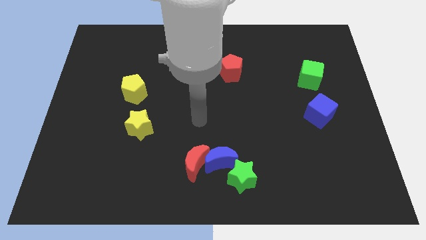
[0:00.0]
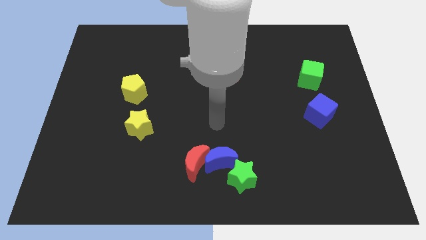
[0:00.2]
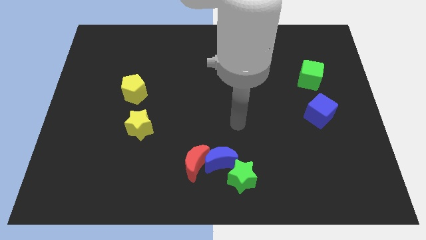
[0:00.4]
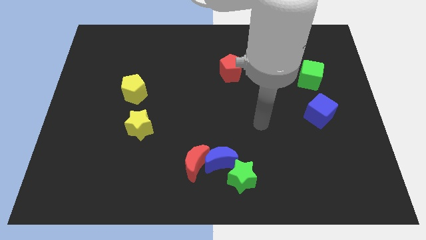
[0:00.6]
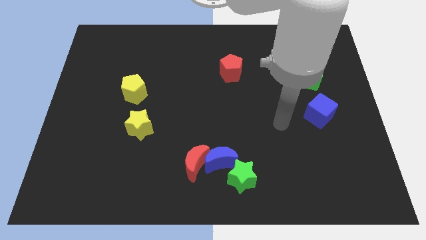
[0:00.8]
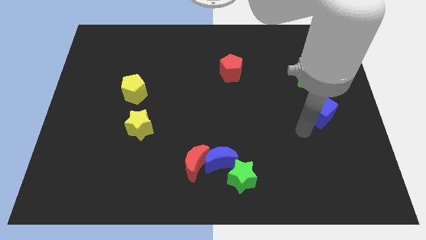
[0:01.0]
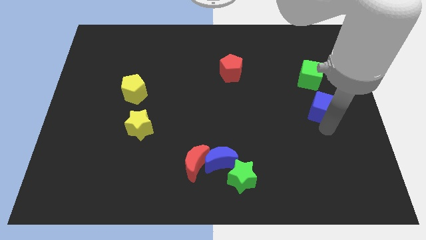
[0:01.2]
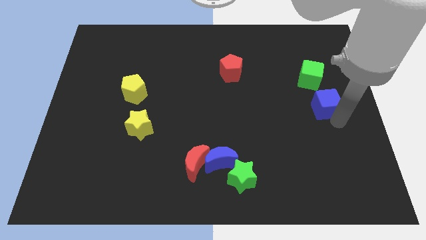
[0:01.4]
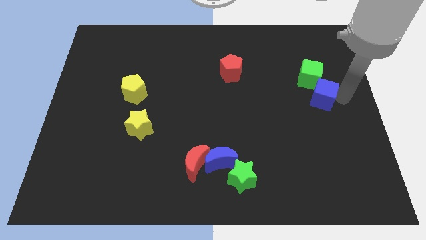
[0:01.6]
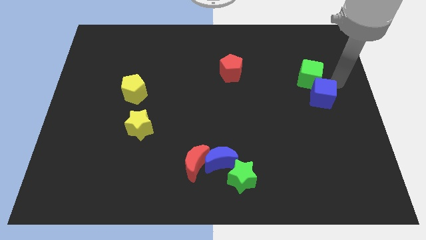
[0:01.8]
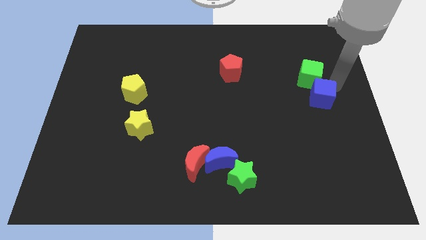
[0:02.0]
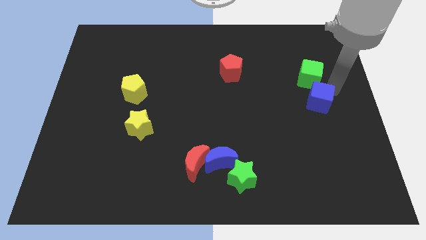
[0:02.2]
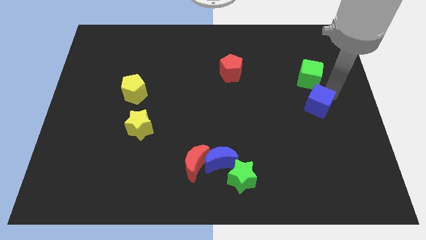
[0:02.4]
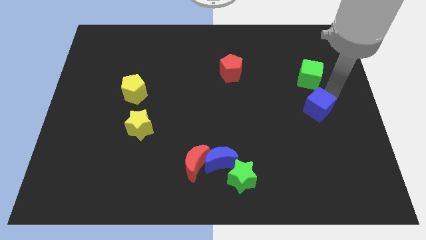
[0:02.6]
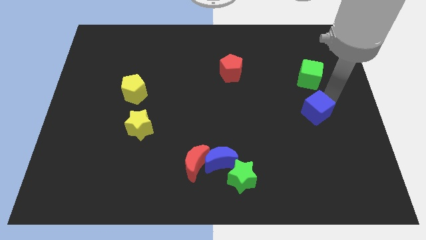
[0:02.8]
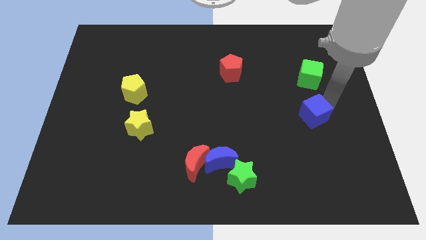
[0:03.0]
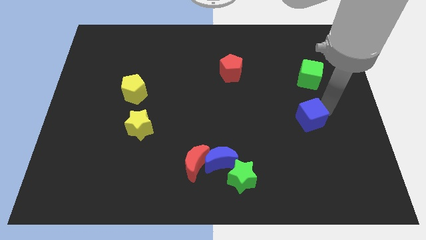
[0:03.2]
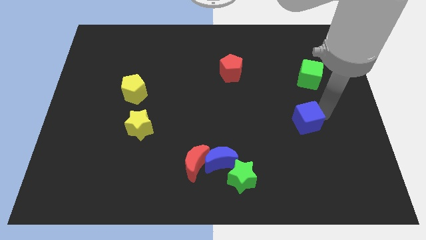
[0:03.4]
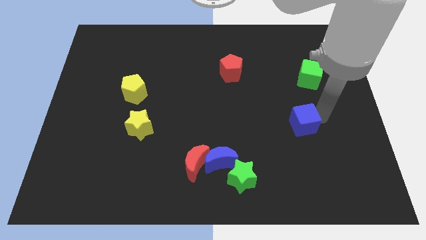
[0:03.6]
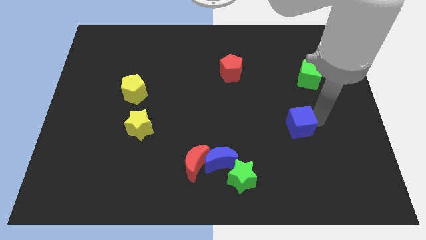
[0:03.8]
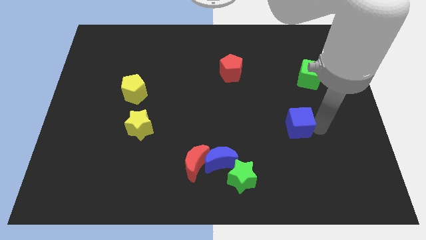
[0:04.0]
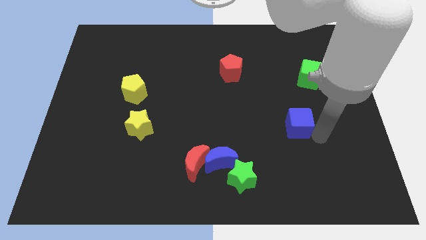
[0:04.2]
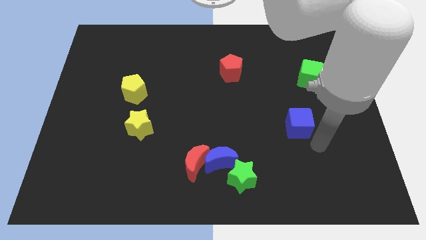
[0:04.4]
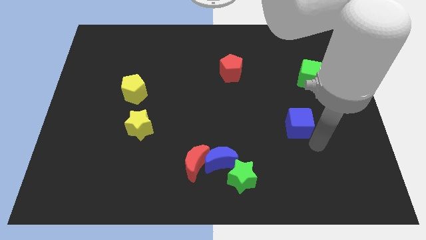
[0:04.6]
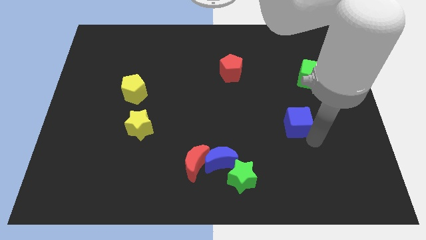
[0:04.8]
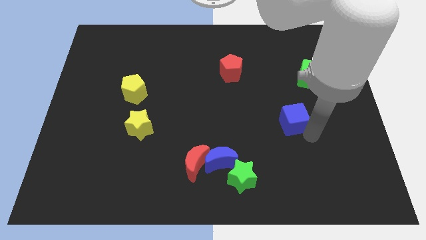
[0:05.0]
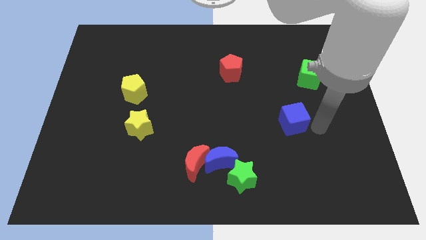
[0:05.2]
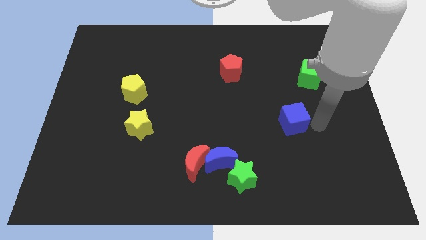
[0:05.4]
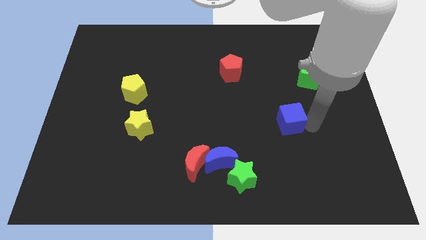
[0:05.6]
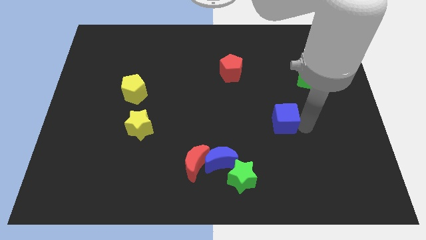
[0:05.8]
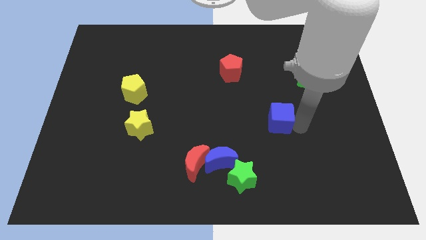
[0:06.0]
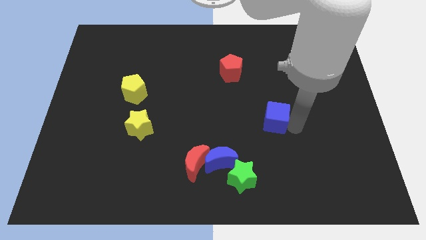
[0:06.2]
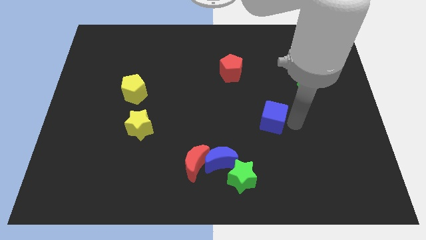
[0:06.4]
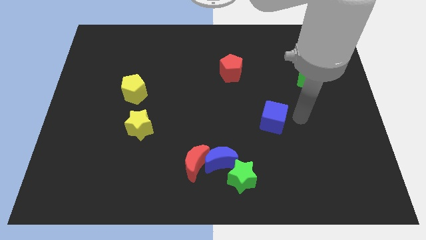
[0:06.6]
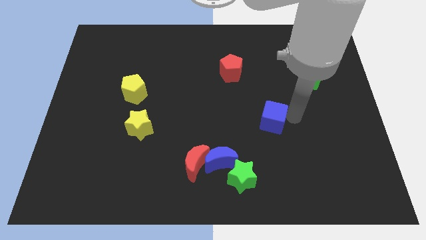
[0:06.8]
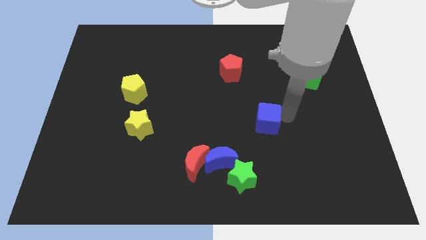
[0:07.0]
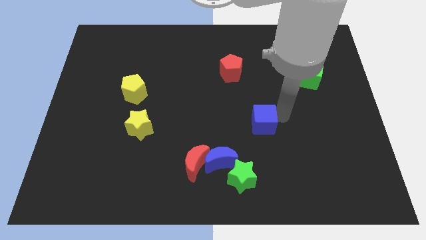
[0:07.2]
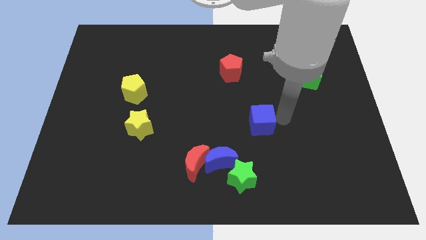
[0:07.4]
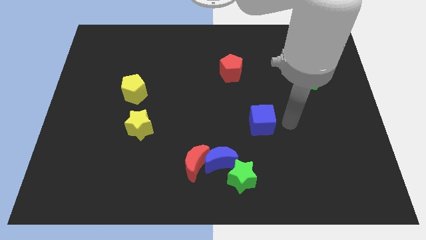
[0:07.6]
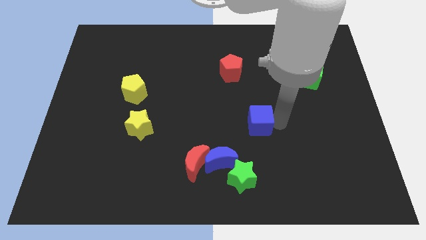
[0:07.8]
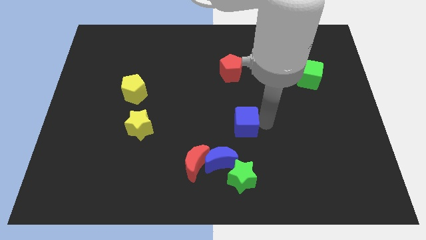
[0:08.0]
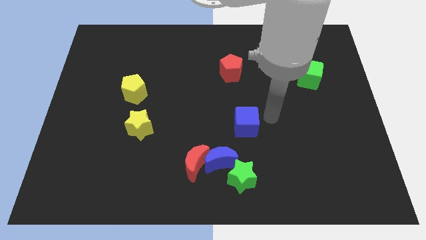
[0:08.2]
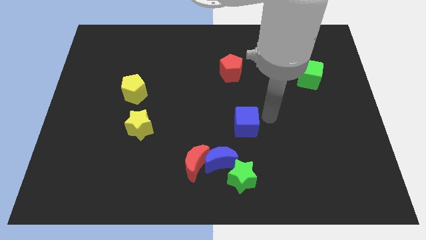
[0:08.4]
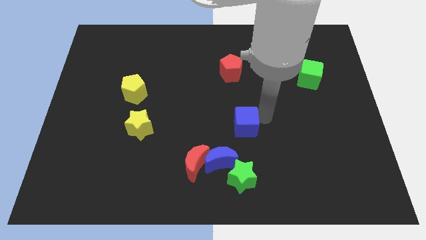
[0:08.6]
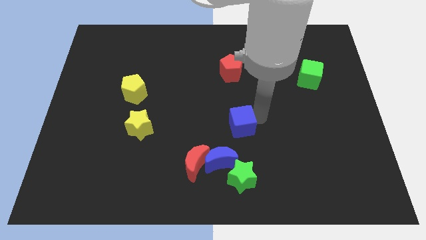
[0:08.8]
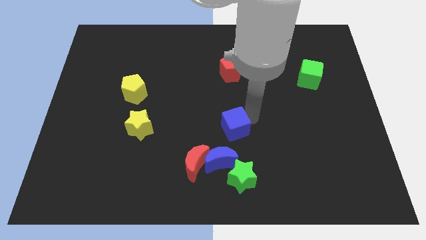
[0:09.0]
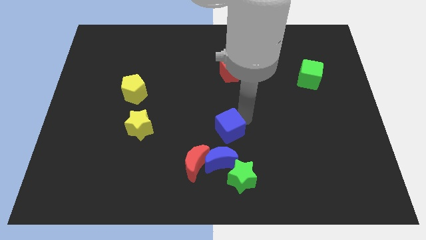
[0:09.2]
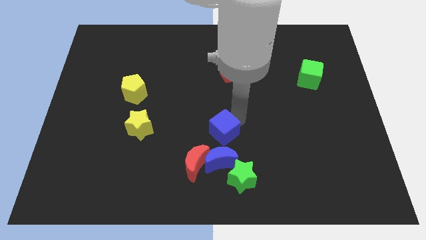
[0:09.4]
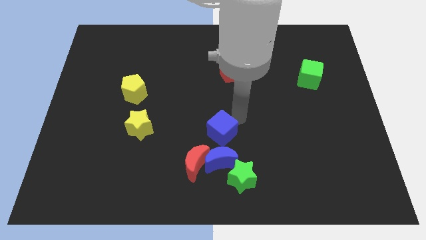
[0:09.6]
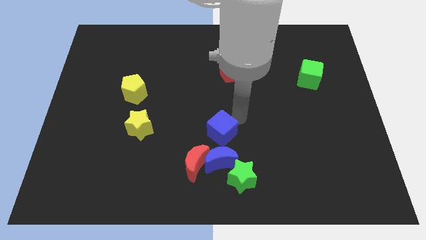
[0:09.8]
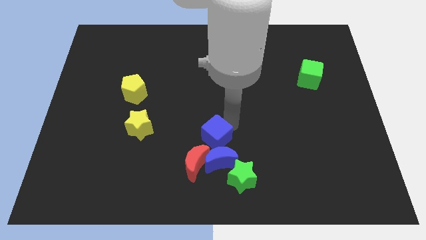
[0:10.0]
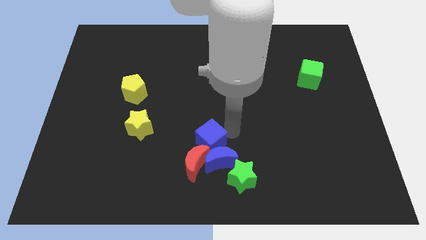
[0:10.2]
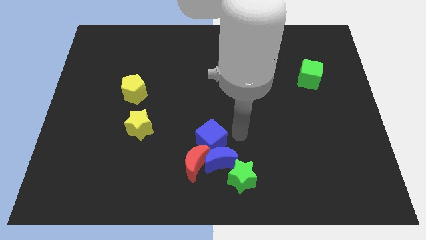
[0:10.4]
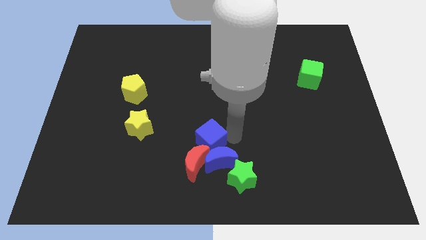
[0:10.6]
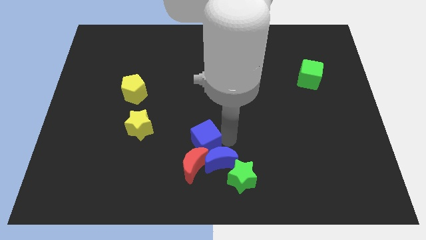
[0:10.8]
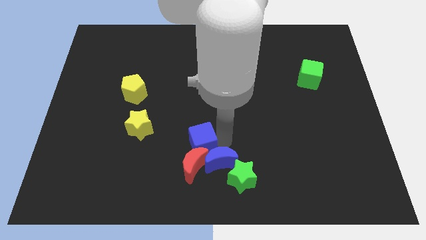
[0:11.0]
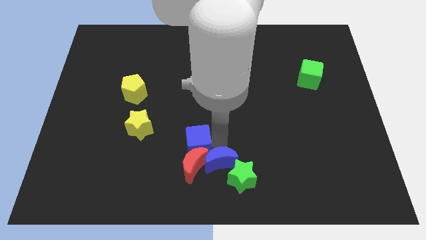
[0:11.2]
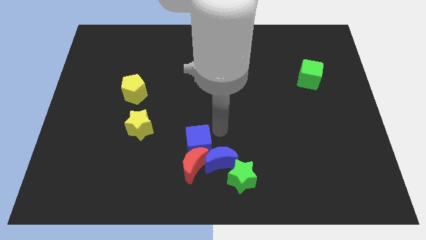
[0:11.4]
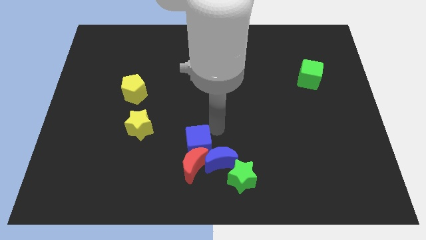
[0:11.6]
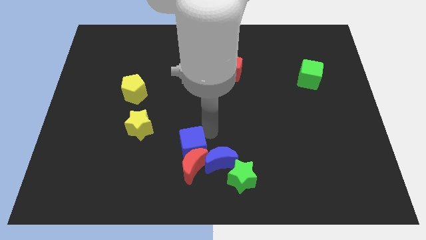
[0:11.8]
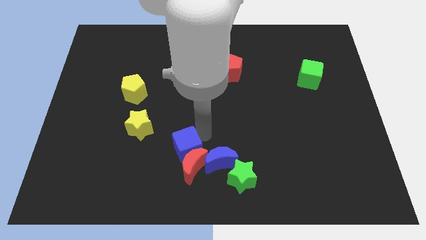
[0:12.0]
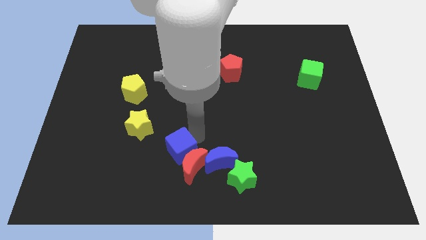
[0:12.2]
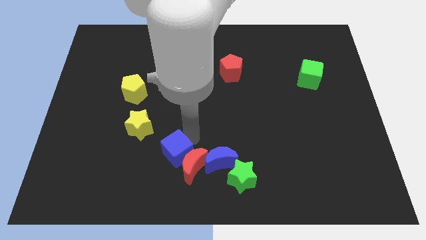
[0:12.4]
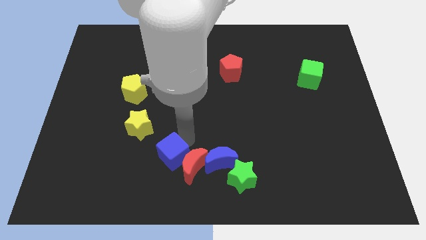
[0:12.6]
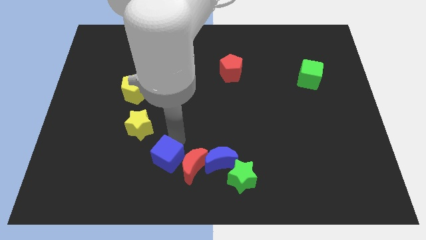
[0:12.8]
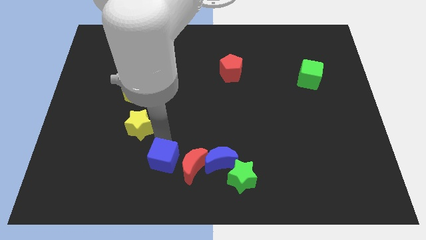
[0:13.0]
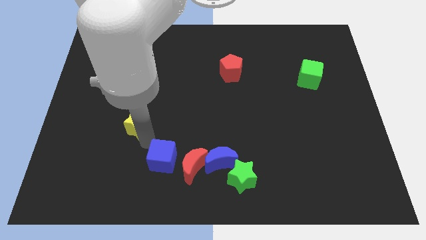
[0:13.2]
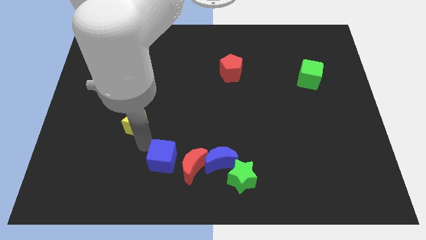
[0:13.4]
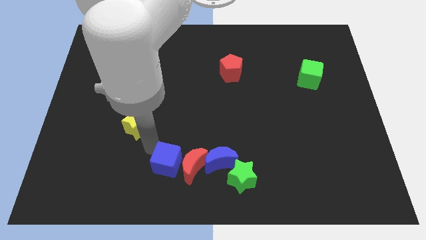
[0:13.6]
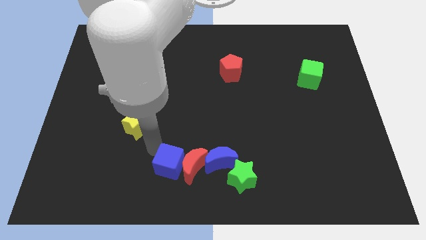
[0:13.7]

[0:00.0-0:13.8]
move the blue cube left of the green star

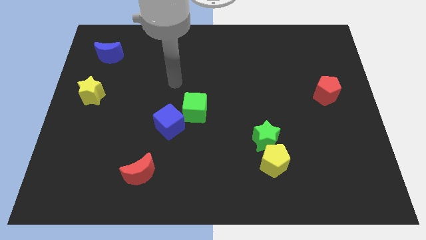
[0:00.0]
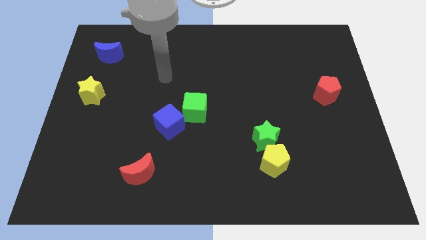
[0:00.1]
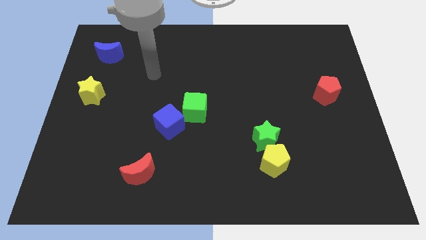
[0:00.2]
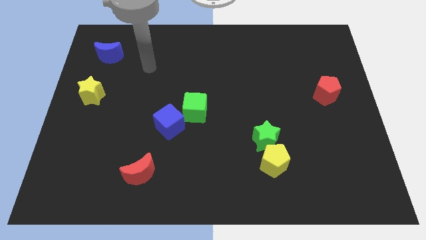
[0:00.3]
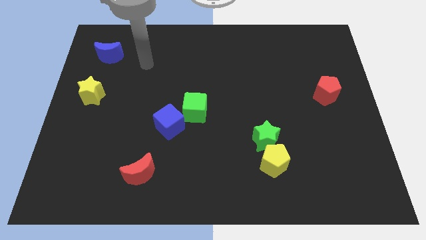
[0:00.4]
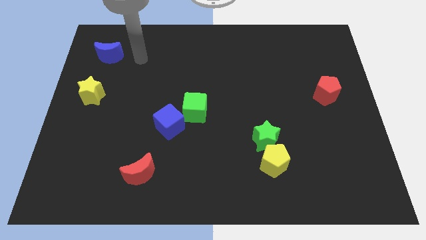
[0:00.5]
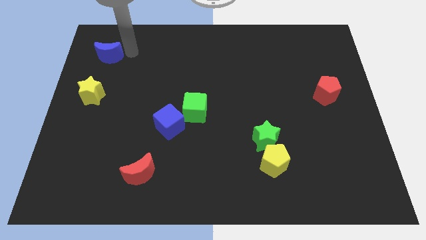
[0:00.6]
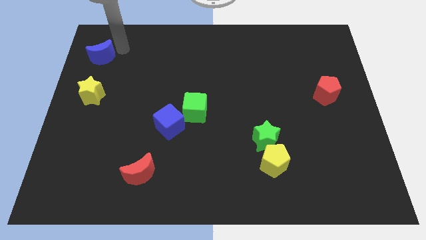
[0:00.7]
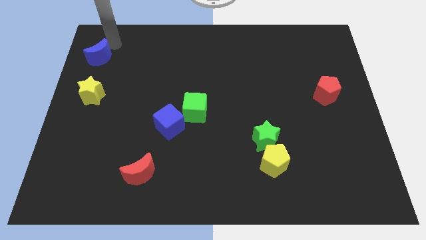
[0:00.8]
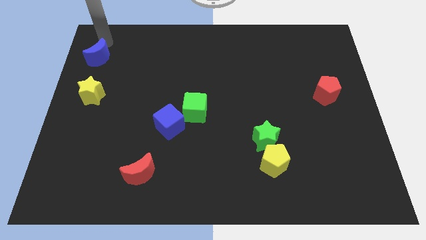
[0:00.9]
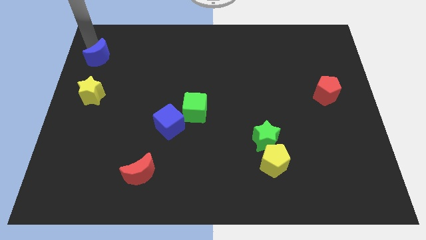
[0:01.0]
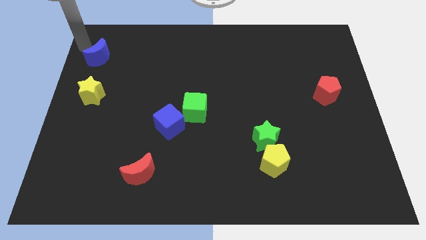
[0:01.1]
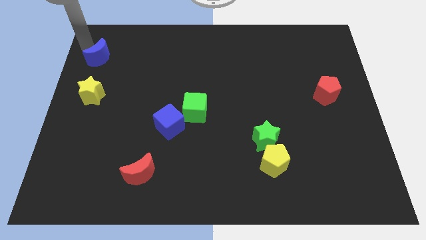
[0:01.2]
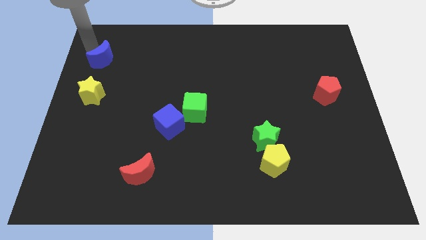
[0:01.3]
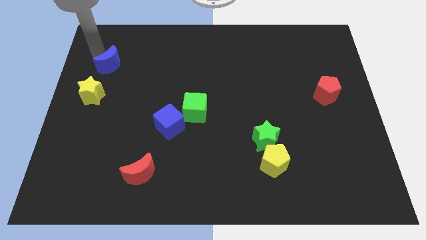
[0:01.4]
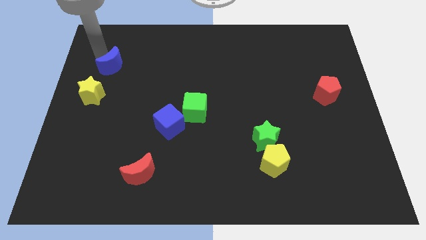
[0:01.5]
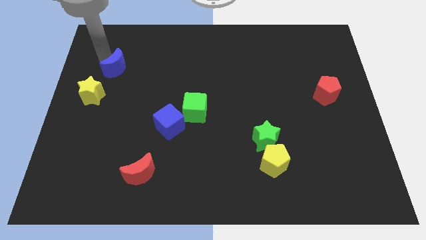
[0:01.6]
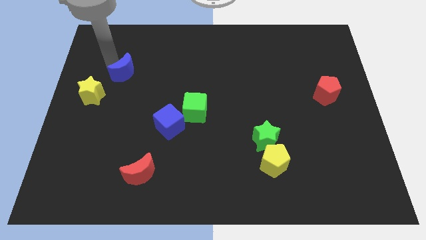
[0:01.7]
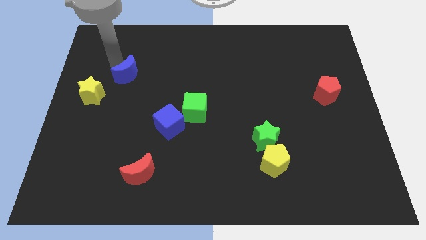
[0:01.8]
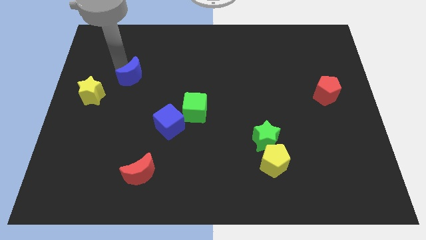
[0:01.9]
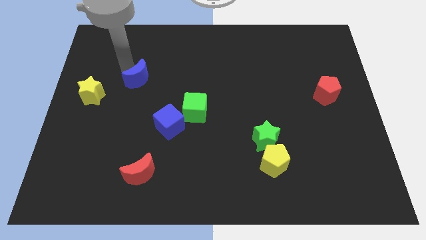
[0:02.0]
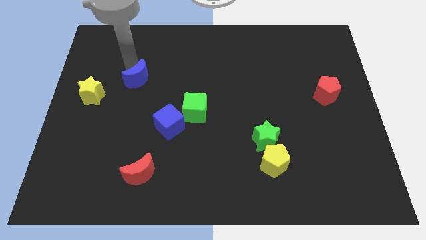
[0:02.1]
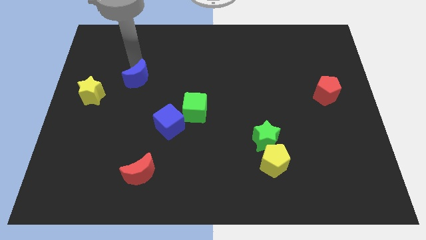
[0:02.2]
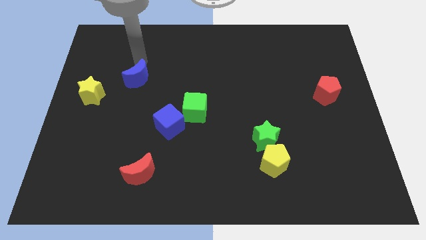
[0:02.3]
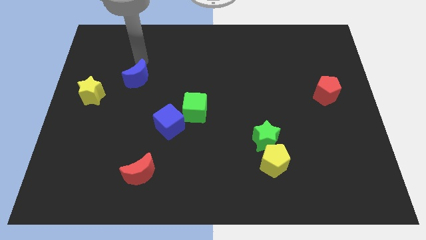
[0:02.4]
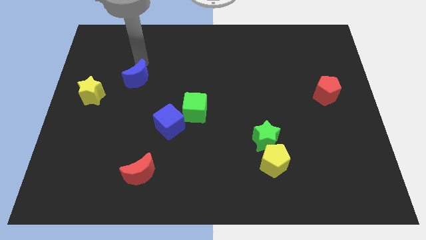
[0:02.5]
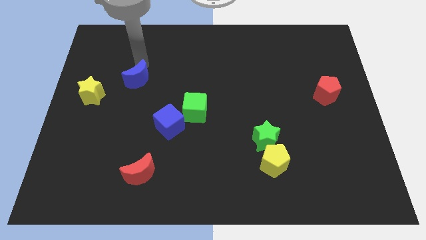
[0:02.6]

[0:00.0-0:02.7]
slide the blue moon right of the yellow star
